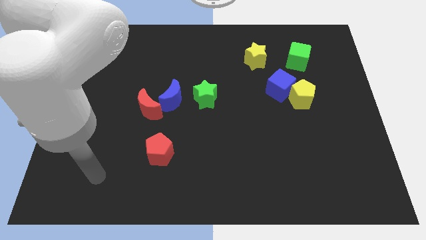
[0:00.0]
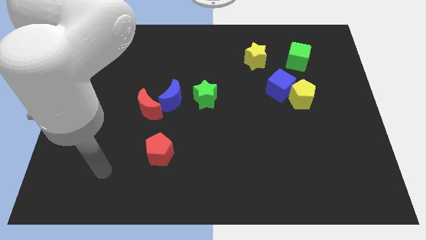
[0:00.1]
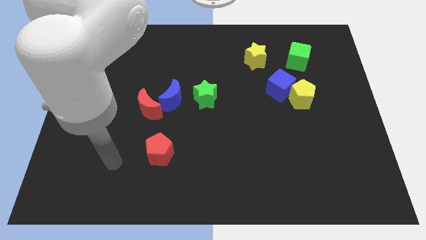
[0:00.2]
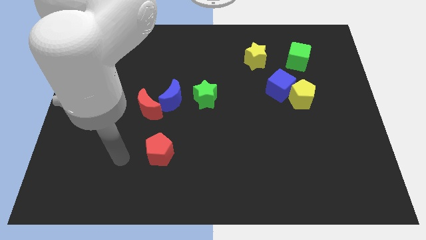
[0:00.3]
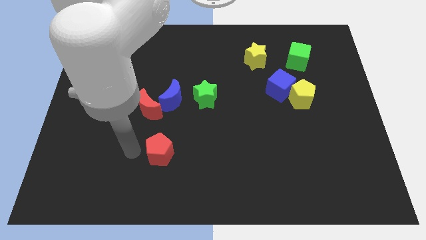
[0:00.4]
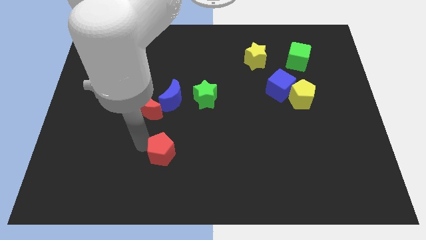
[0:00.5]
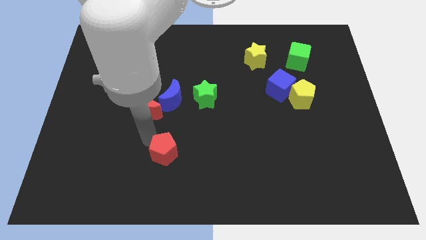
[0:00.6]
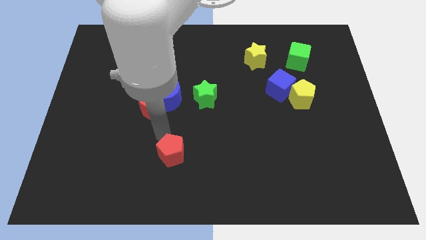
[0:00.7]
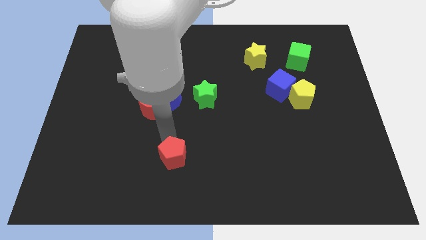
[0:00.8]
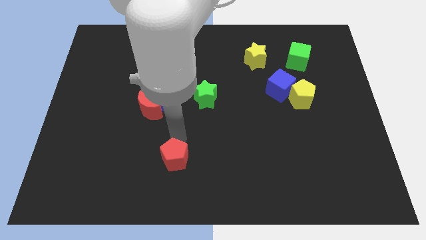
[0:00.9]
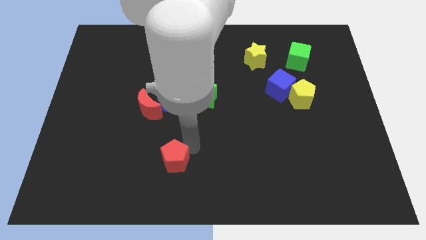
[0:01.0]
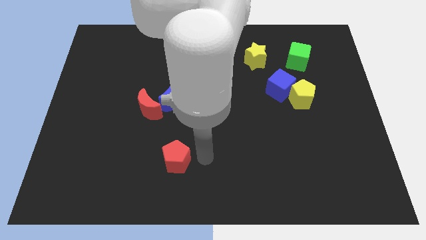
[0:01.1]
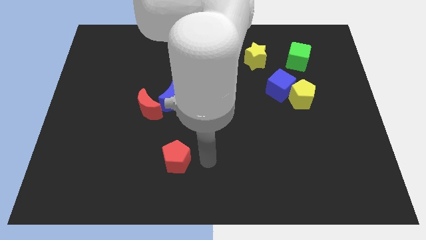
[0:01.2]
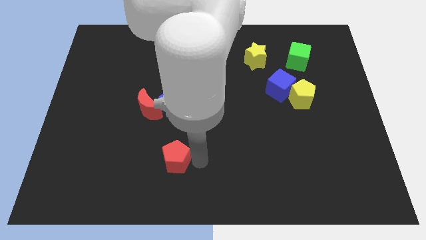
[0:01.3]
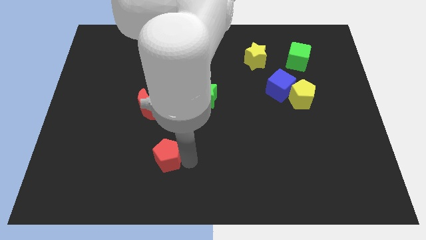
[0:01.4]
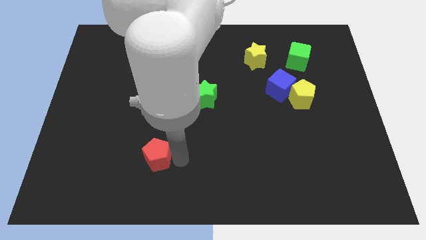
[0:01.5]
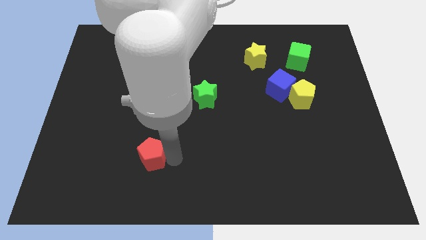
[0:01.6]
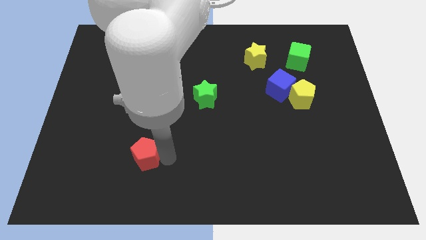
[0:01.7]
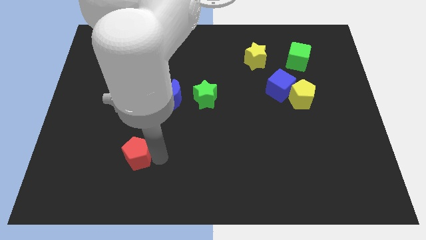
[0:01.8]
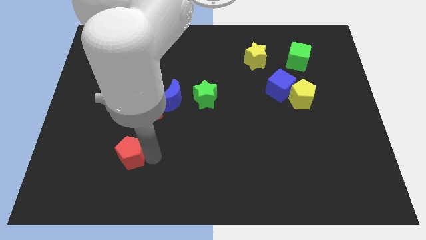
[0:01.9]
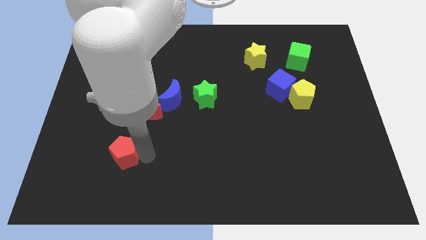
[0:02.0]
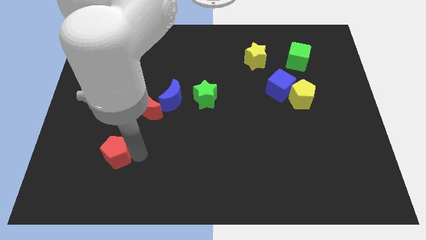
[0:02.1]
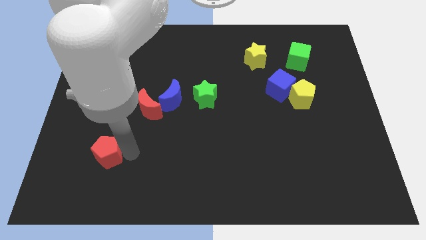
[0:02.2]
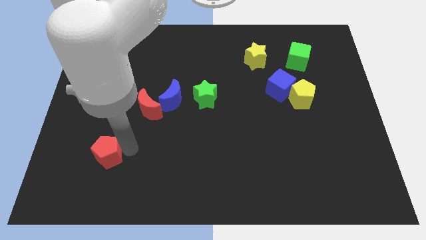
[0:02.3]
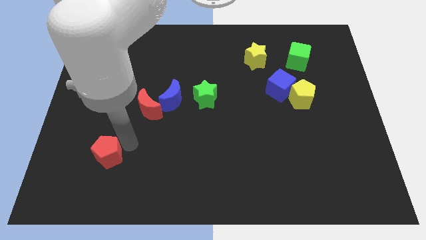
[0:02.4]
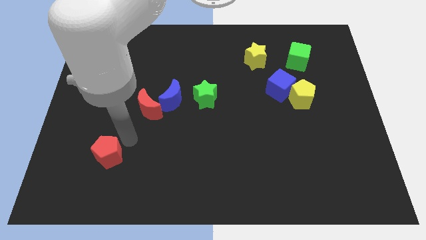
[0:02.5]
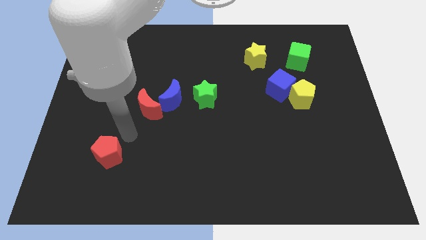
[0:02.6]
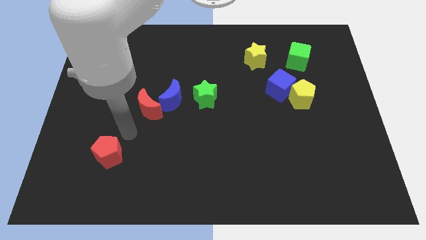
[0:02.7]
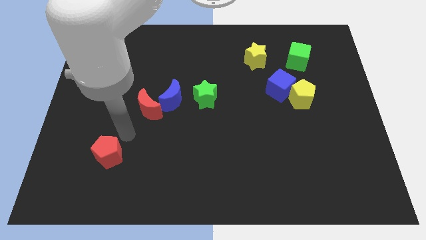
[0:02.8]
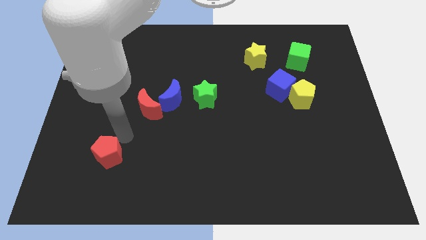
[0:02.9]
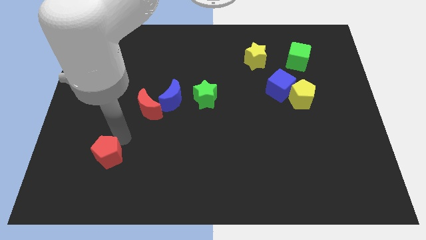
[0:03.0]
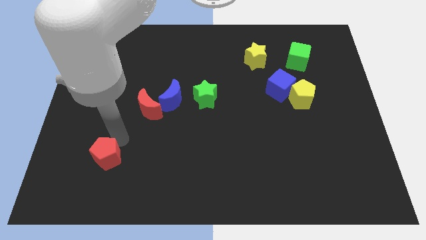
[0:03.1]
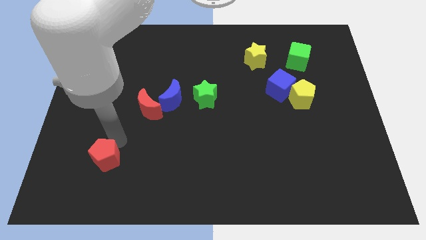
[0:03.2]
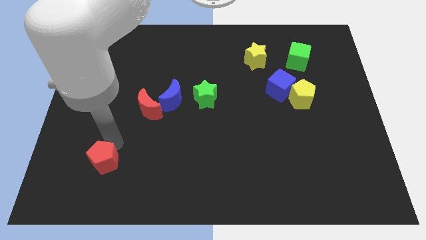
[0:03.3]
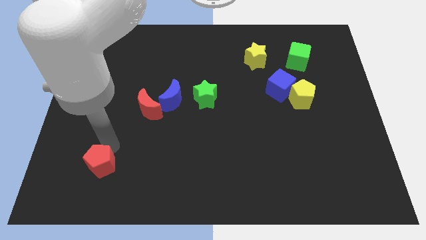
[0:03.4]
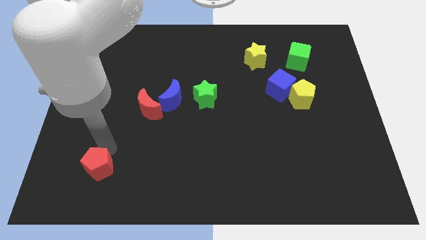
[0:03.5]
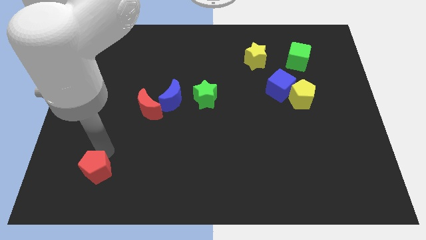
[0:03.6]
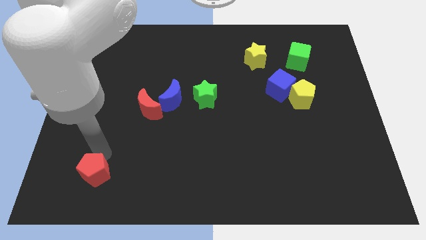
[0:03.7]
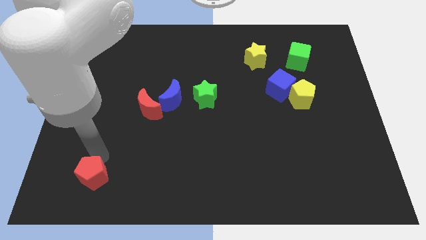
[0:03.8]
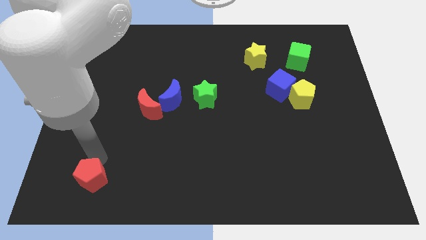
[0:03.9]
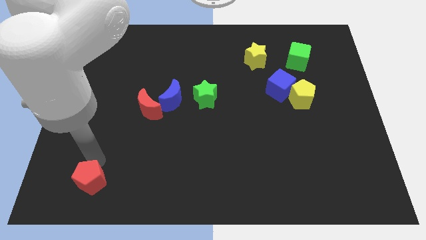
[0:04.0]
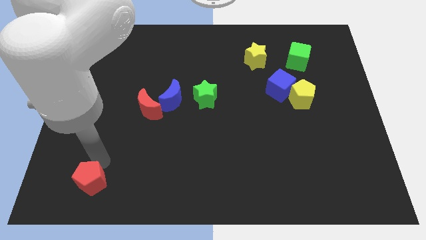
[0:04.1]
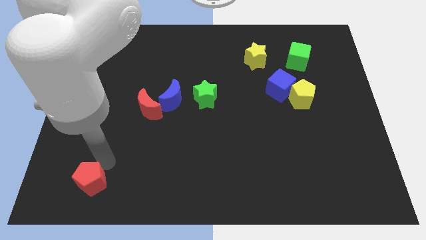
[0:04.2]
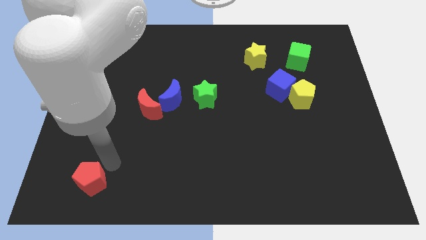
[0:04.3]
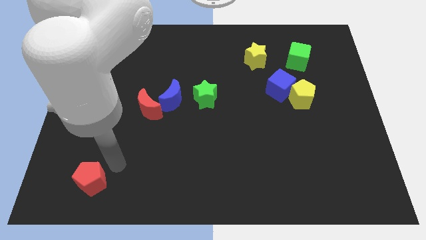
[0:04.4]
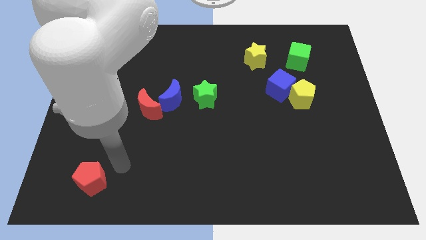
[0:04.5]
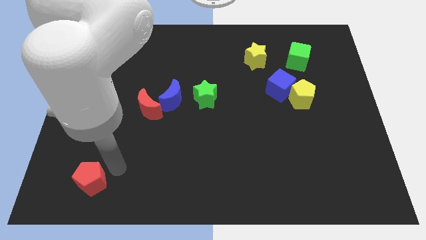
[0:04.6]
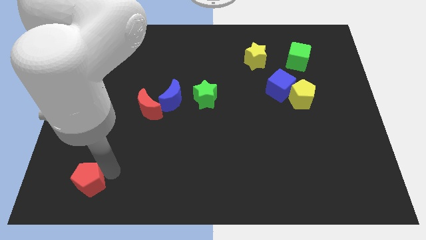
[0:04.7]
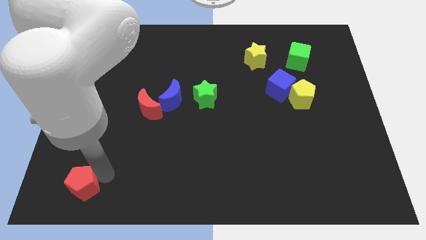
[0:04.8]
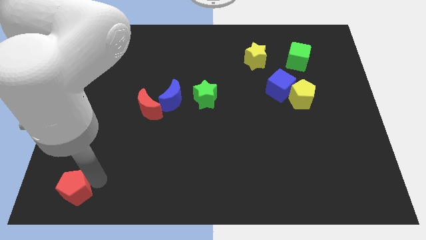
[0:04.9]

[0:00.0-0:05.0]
push the red pentagon to the bottom left of the board
